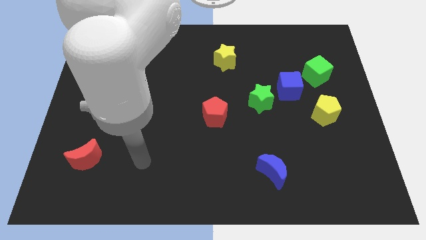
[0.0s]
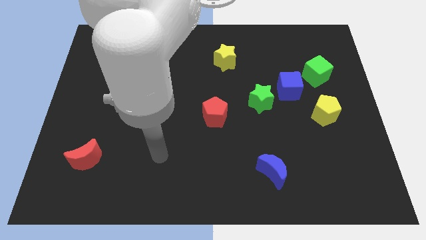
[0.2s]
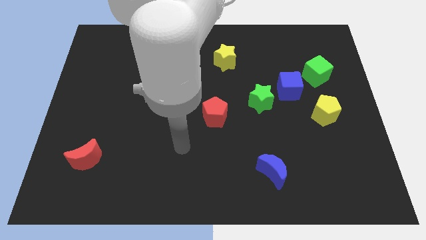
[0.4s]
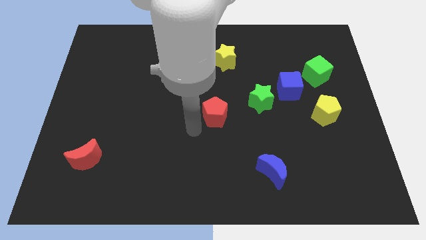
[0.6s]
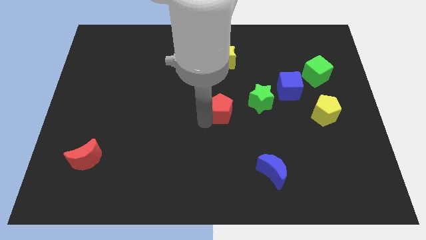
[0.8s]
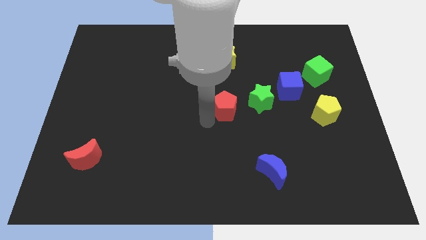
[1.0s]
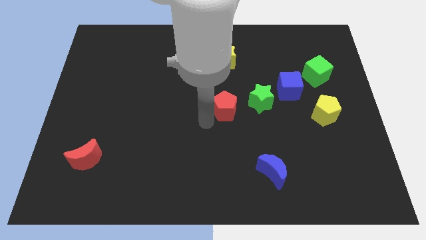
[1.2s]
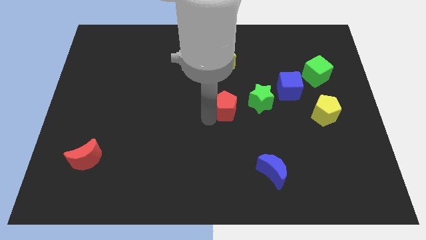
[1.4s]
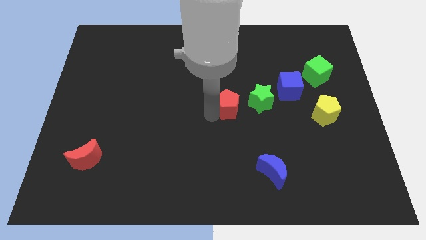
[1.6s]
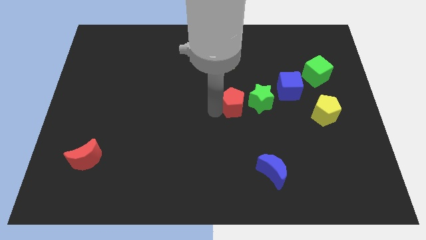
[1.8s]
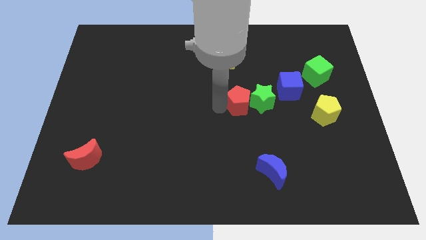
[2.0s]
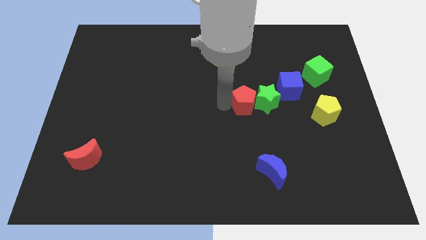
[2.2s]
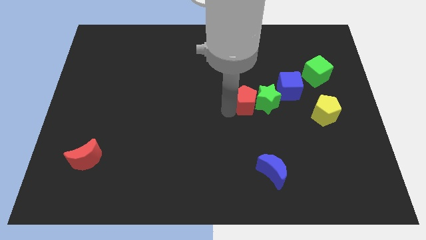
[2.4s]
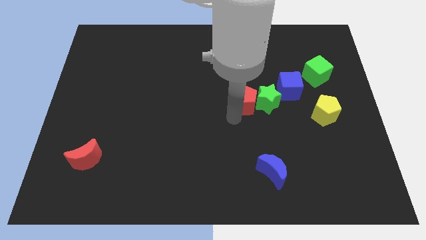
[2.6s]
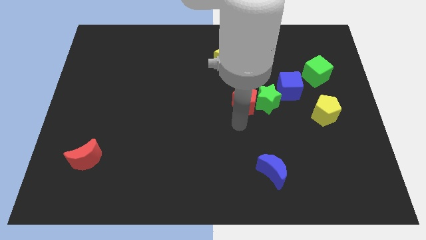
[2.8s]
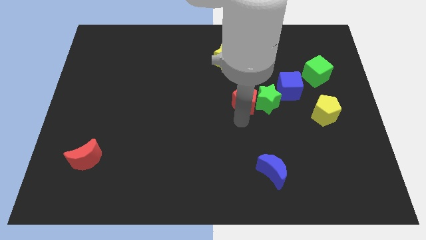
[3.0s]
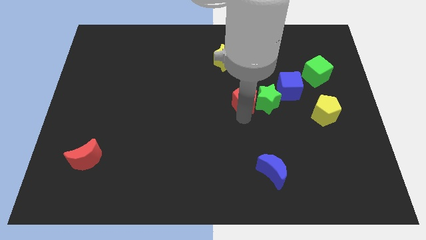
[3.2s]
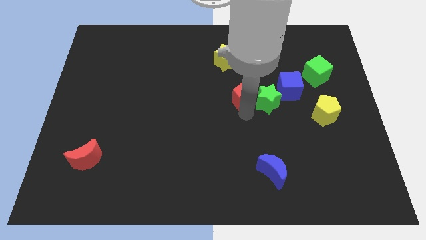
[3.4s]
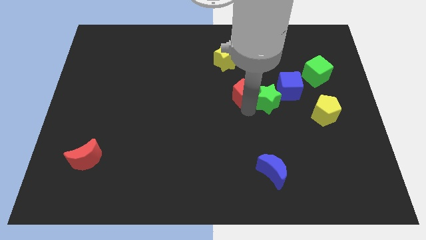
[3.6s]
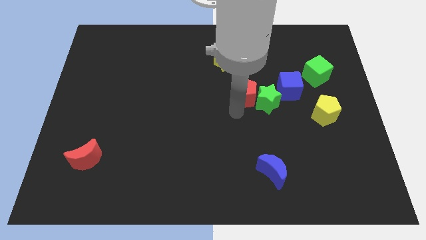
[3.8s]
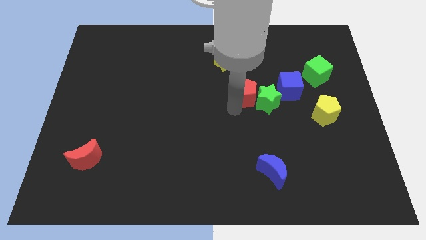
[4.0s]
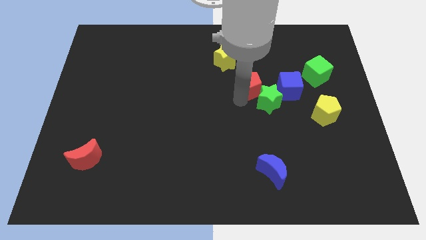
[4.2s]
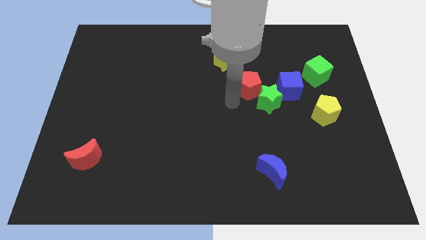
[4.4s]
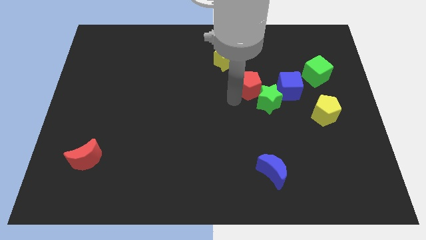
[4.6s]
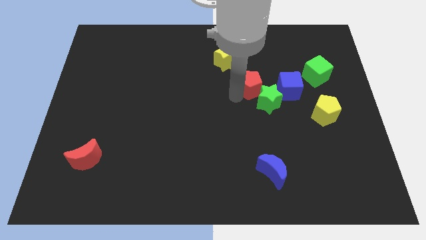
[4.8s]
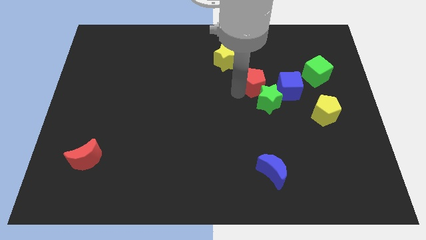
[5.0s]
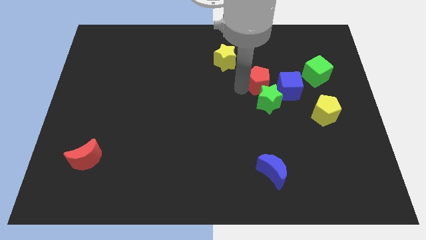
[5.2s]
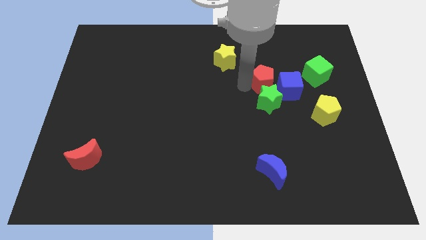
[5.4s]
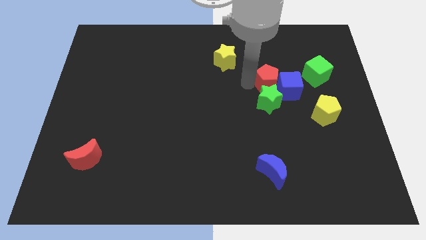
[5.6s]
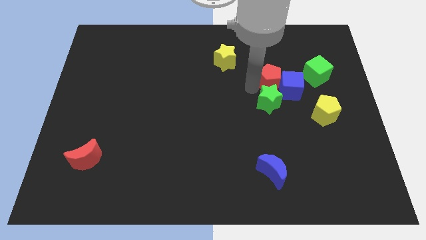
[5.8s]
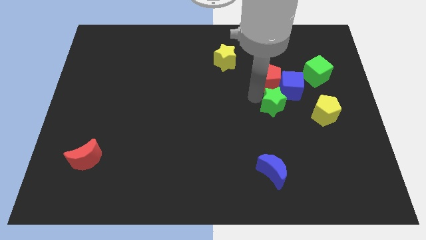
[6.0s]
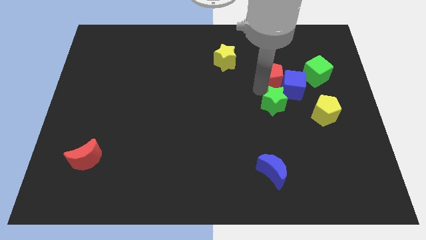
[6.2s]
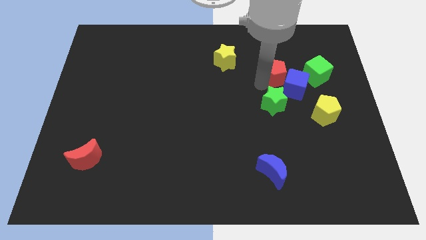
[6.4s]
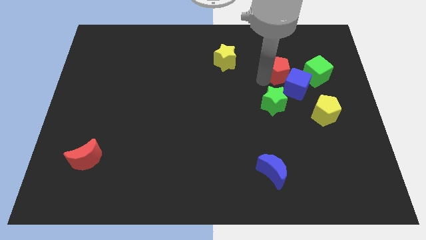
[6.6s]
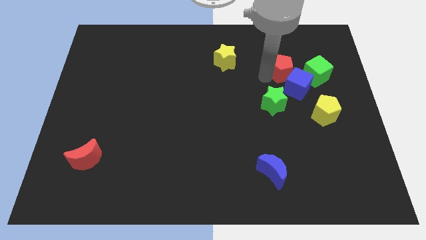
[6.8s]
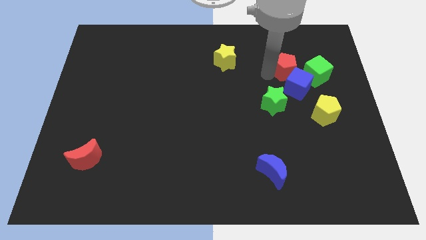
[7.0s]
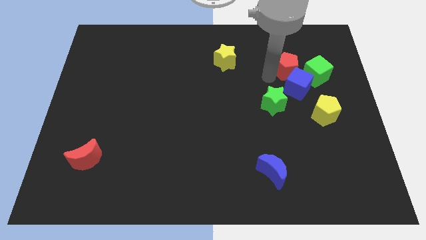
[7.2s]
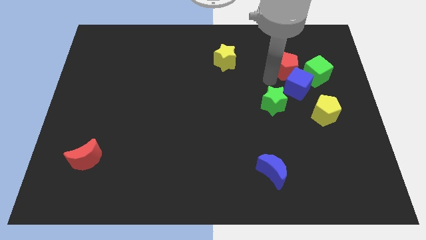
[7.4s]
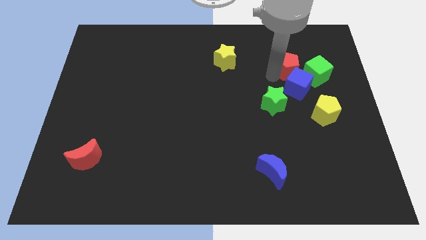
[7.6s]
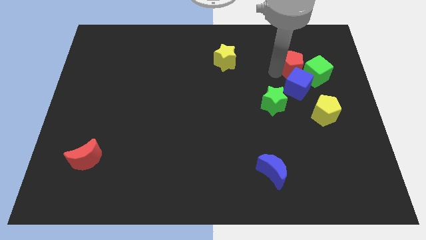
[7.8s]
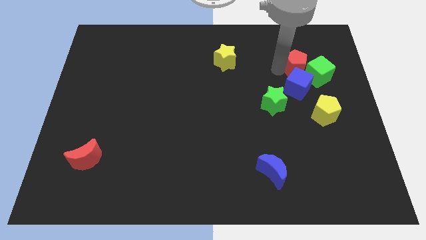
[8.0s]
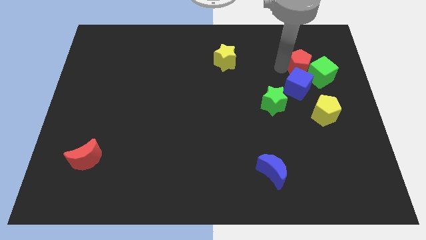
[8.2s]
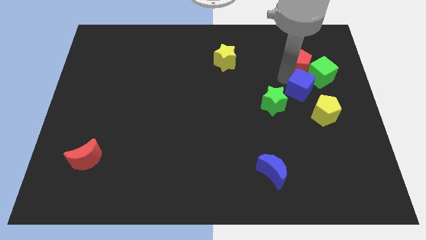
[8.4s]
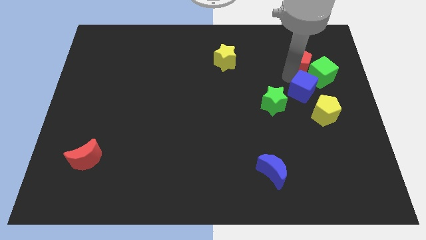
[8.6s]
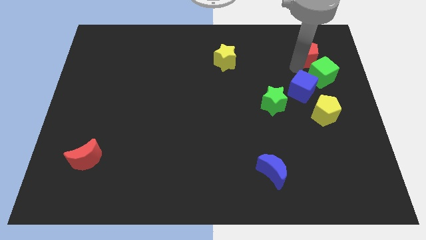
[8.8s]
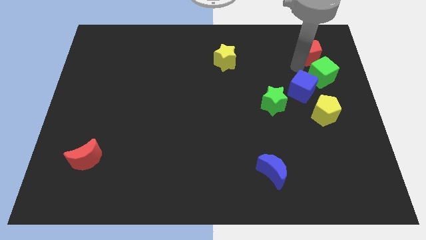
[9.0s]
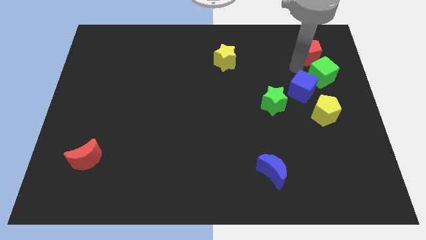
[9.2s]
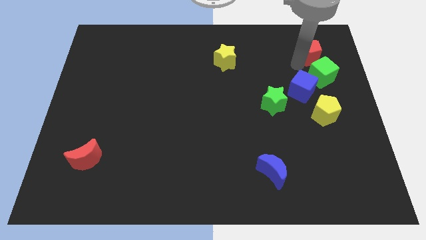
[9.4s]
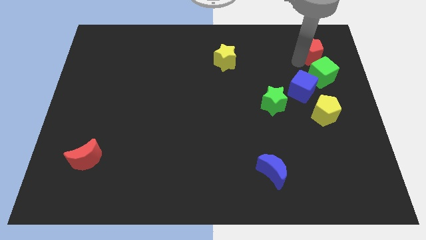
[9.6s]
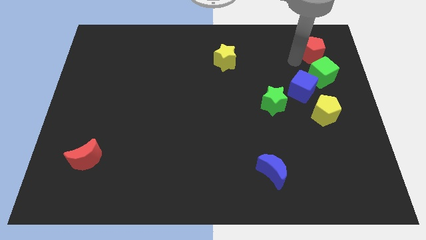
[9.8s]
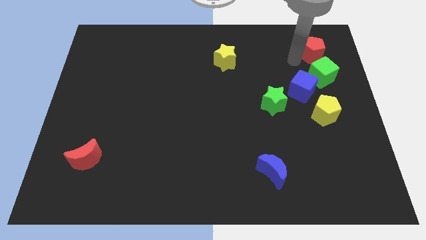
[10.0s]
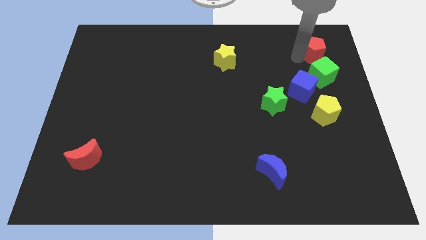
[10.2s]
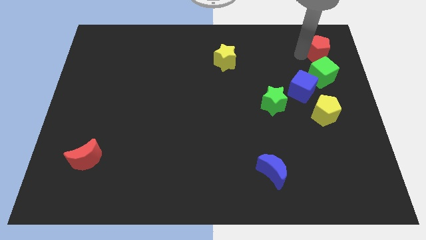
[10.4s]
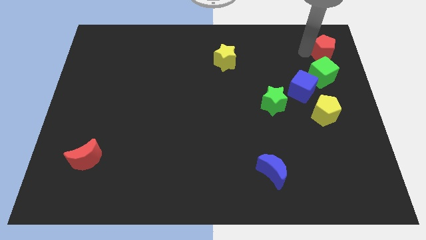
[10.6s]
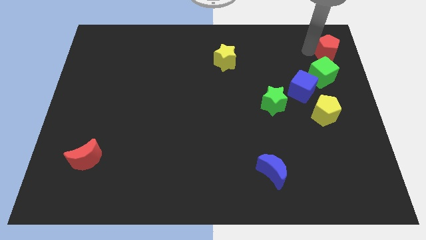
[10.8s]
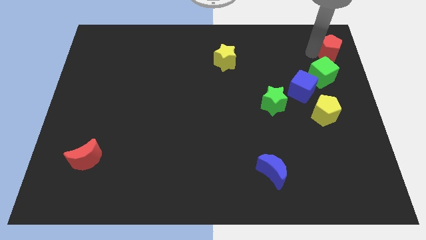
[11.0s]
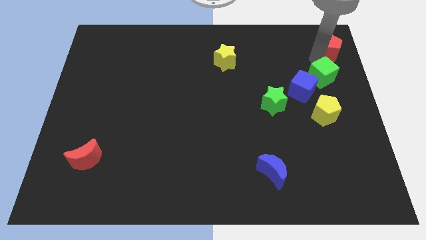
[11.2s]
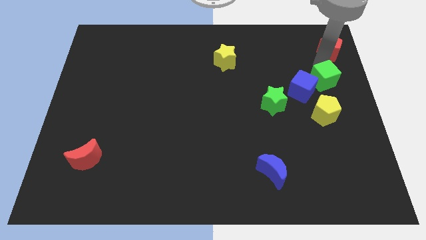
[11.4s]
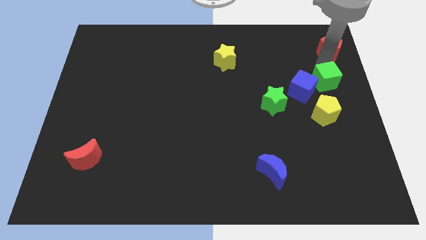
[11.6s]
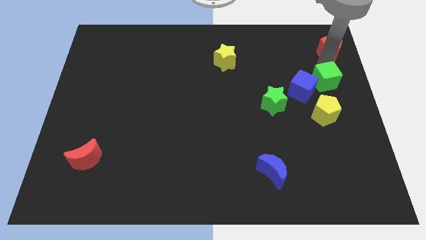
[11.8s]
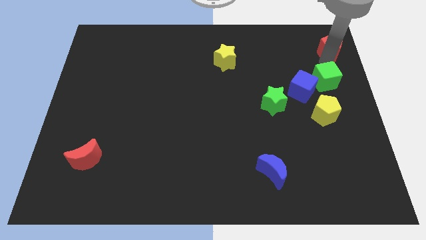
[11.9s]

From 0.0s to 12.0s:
slide the red pentagon to the top right corner

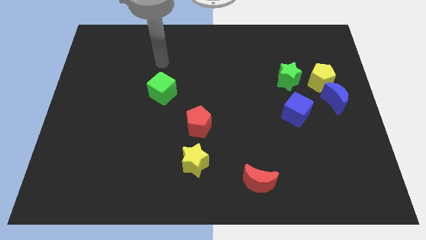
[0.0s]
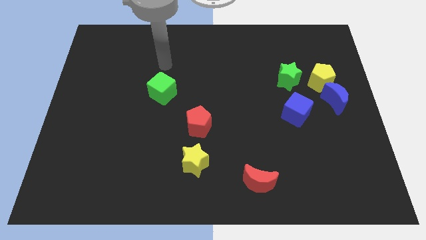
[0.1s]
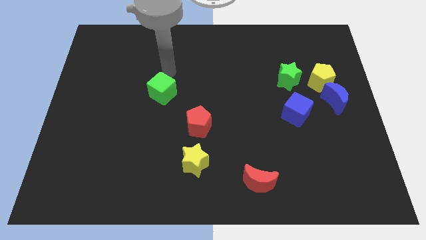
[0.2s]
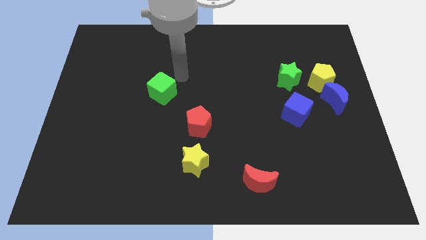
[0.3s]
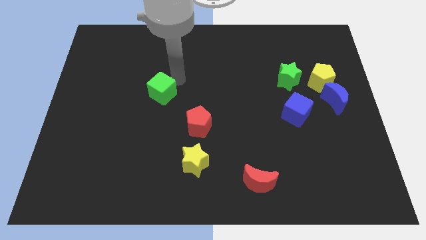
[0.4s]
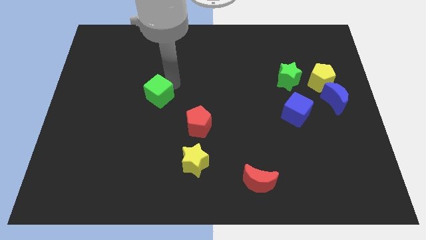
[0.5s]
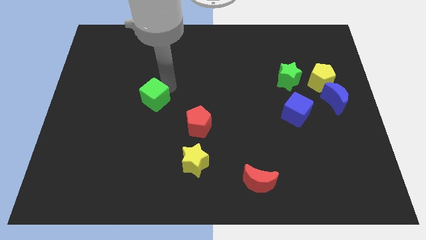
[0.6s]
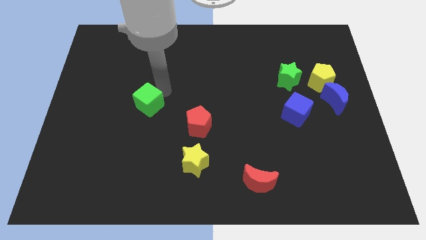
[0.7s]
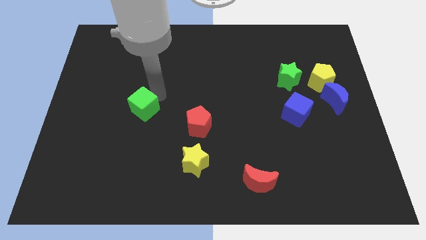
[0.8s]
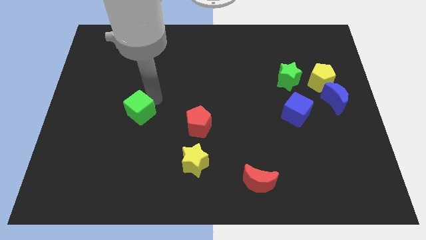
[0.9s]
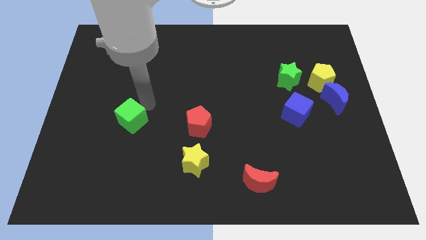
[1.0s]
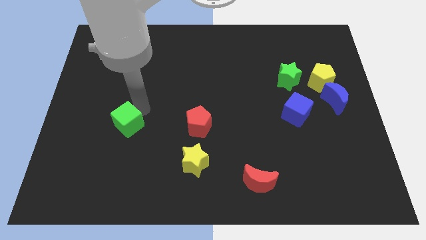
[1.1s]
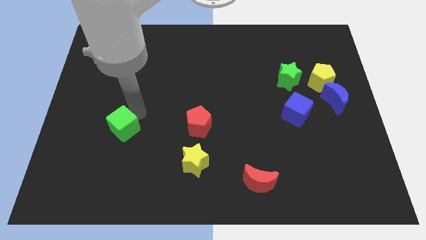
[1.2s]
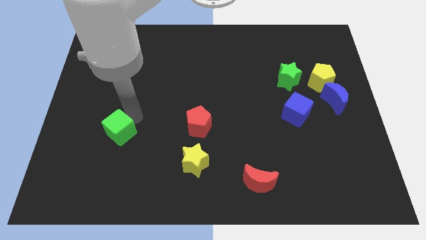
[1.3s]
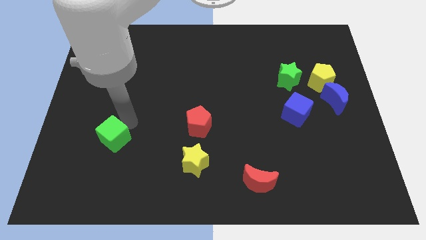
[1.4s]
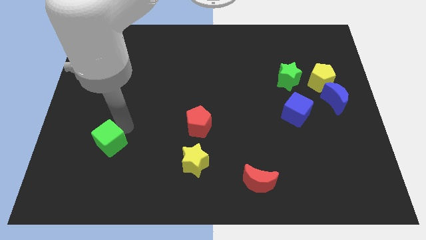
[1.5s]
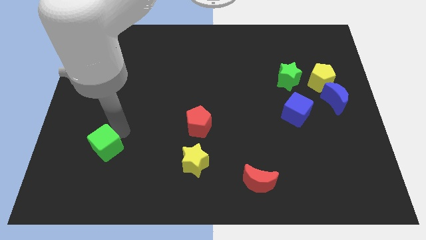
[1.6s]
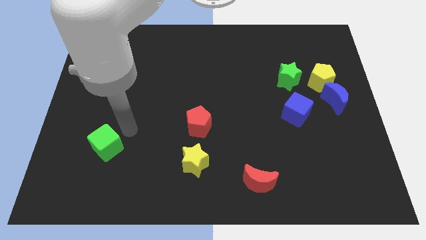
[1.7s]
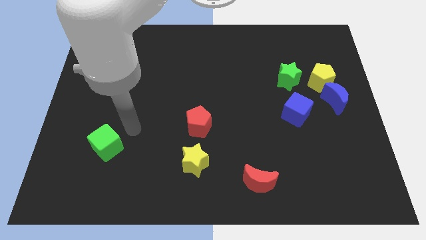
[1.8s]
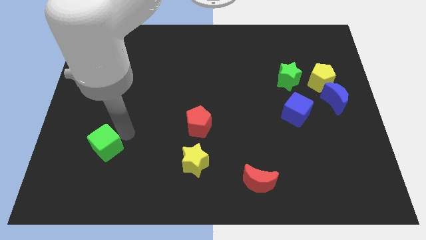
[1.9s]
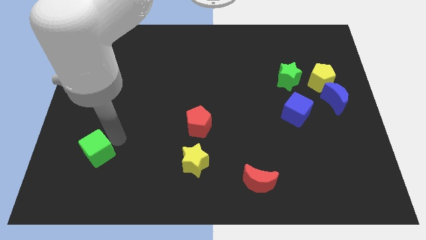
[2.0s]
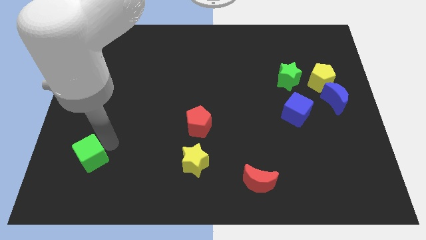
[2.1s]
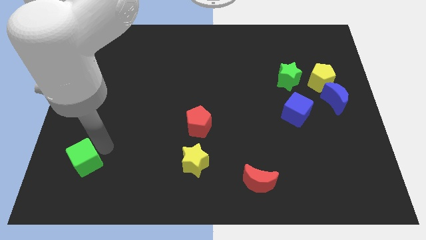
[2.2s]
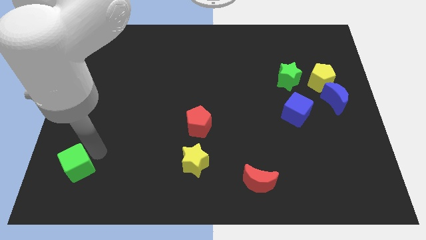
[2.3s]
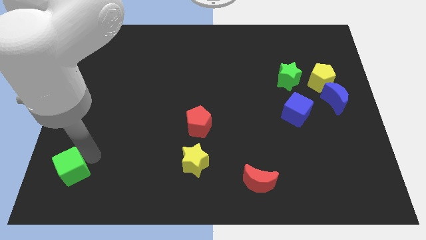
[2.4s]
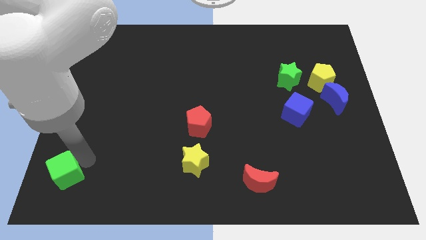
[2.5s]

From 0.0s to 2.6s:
slide the green cube to the bottom left
